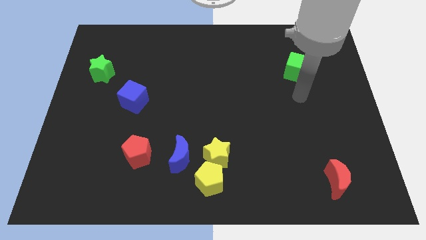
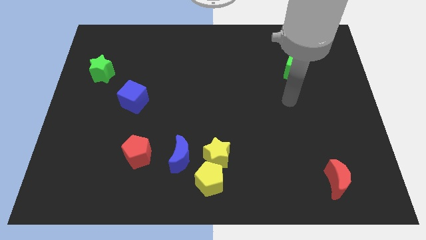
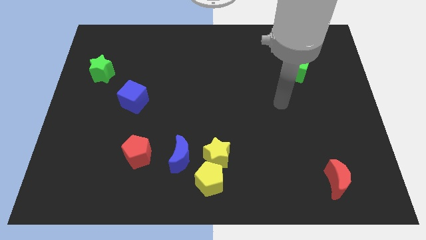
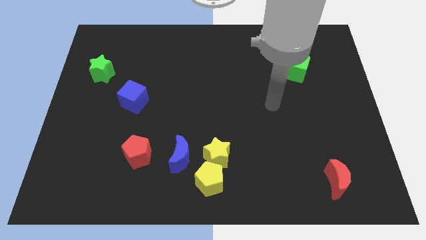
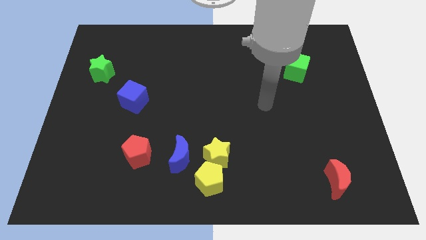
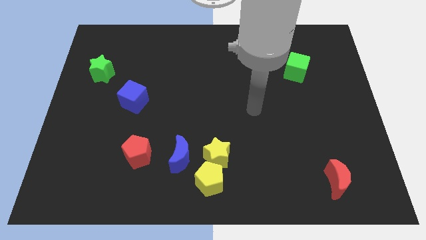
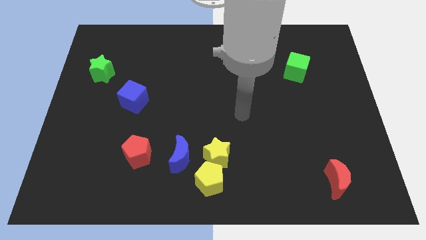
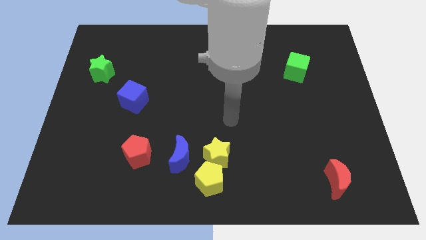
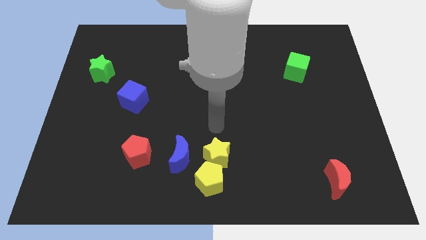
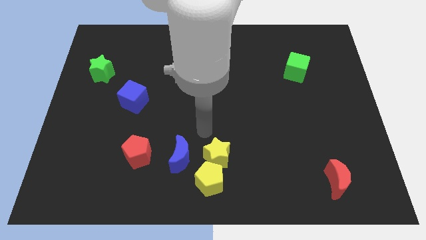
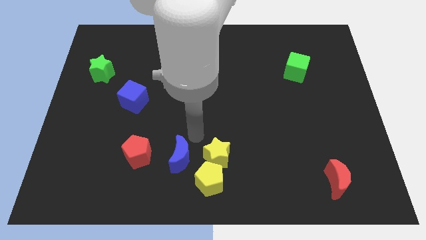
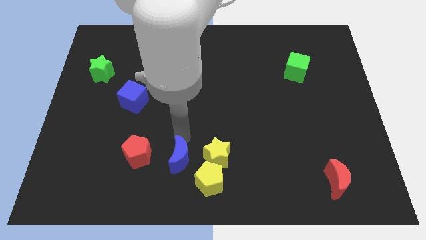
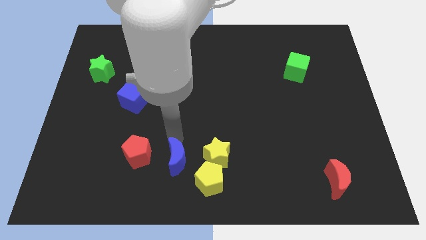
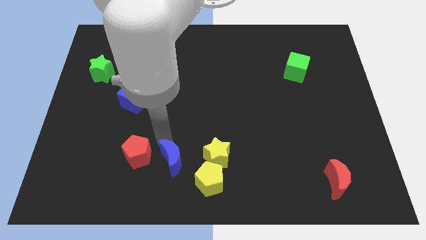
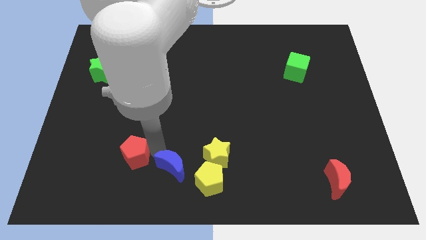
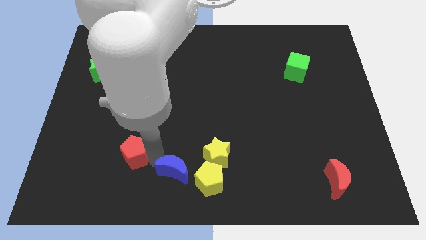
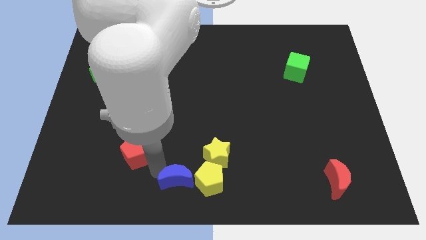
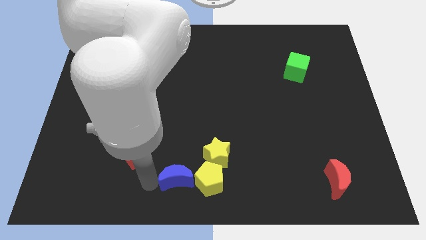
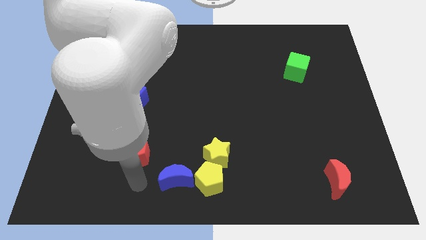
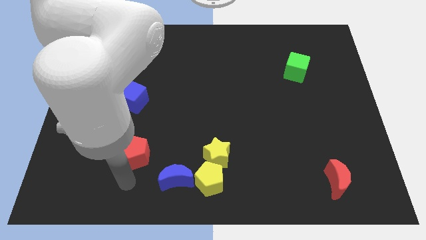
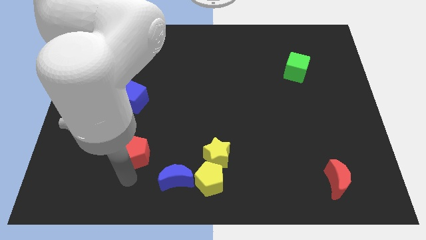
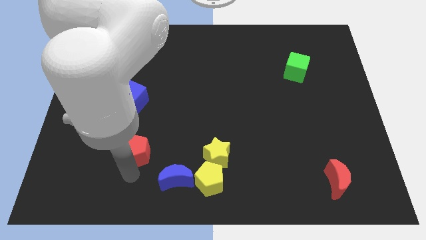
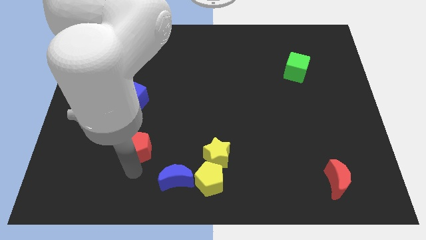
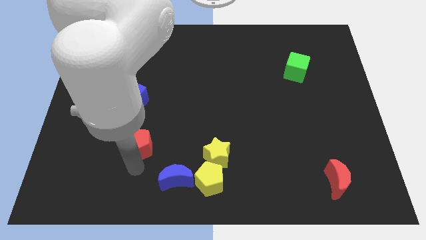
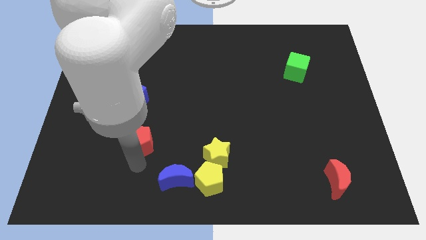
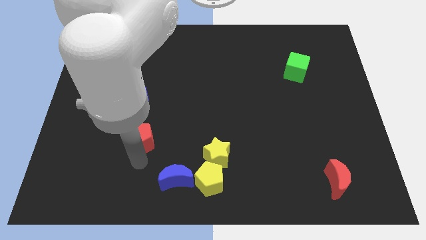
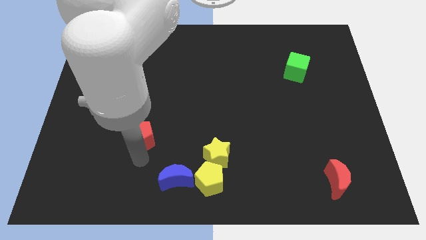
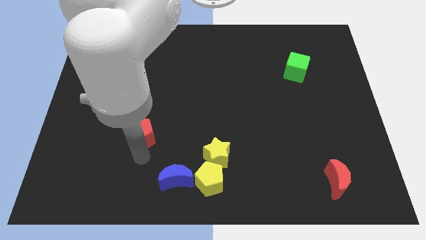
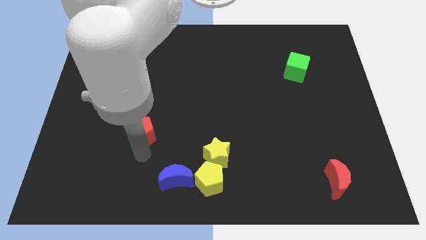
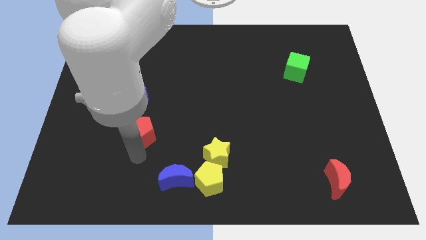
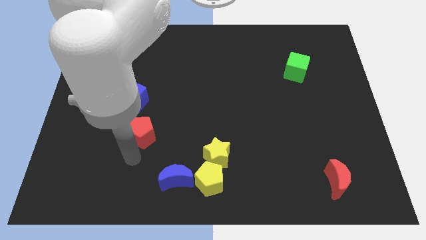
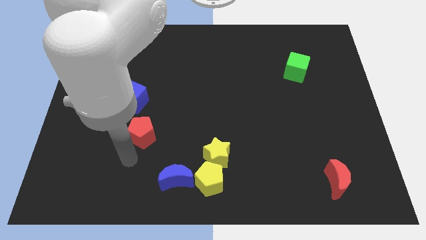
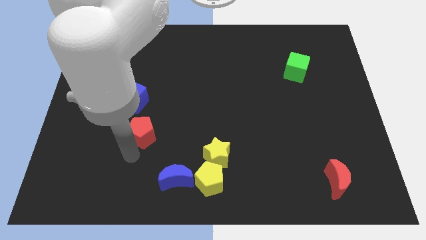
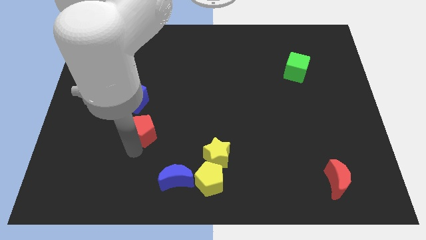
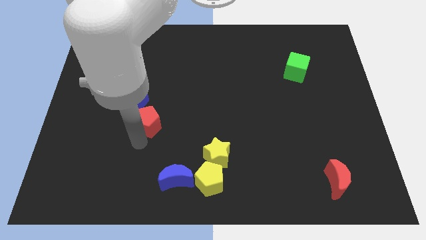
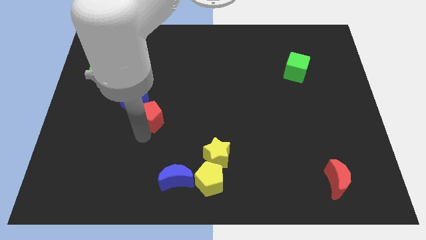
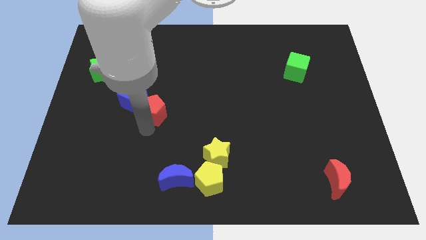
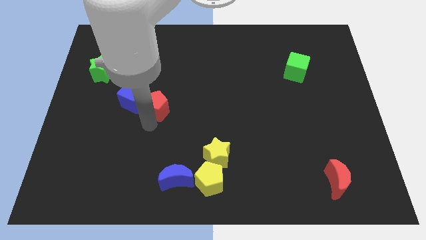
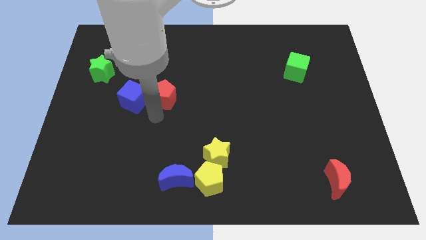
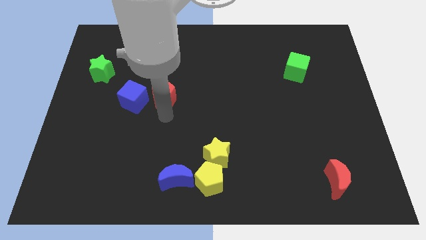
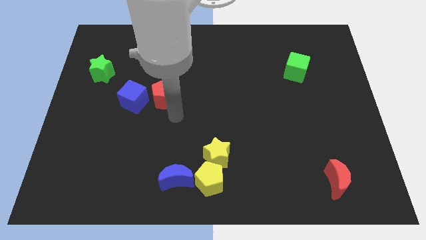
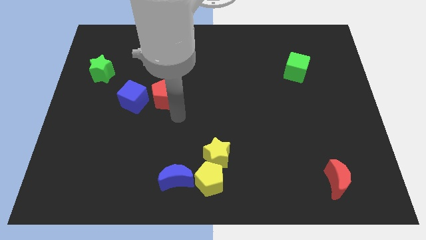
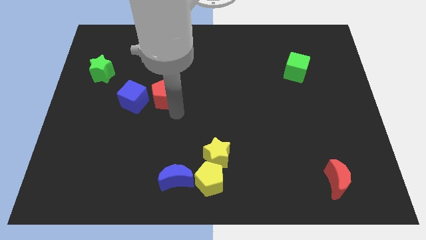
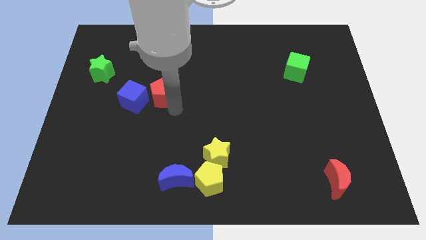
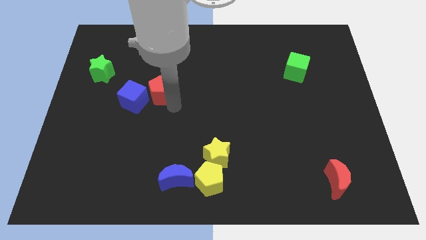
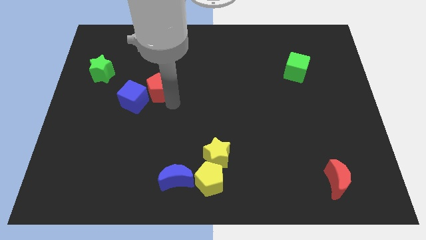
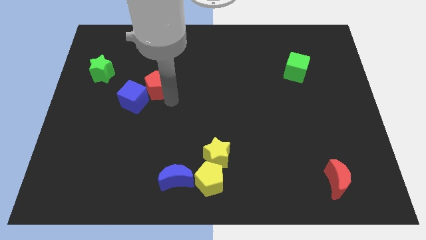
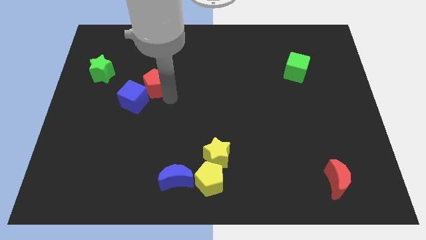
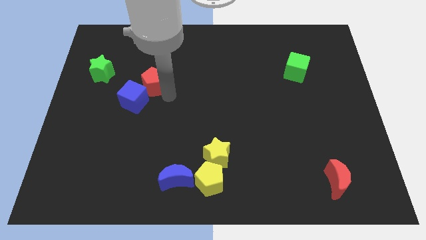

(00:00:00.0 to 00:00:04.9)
put the red pentagon just right of the green star

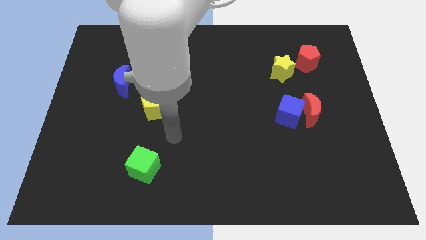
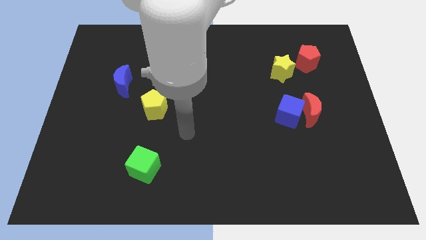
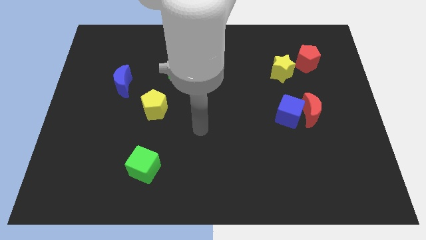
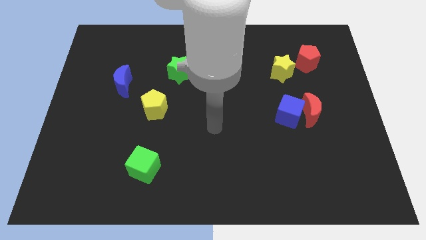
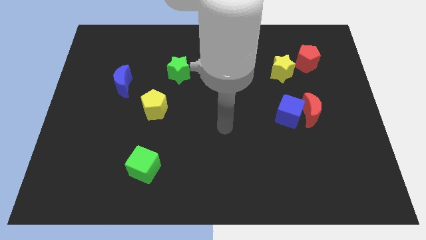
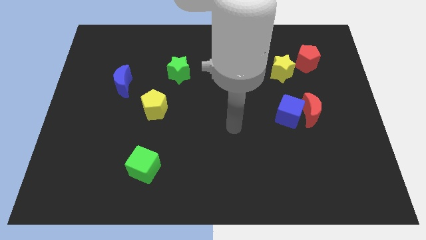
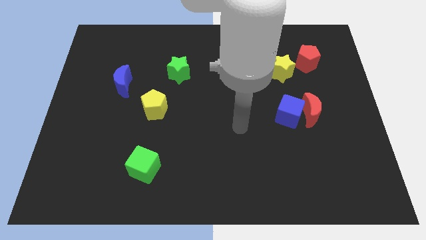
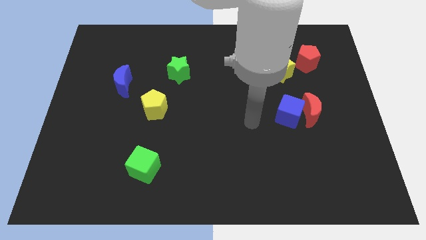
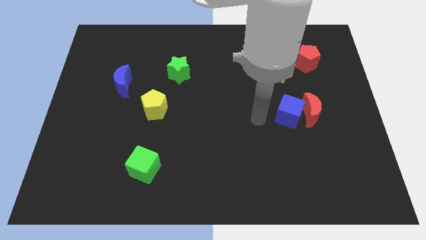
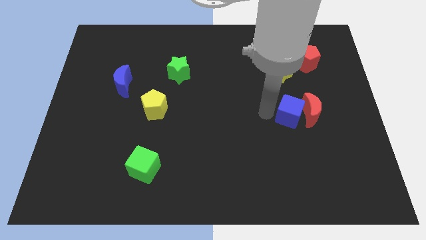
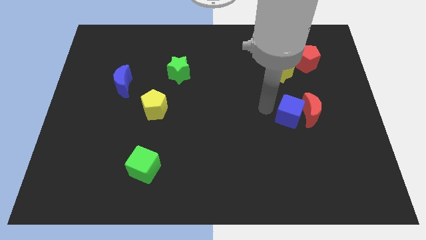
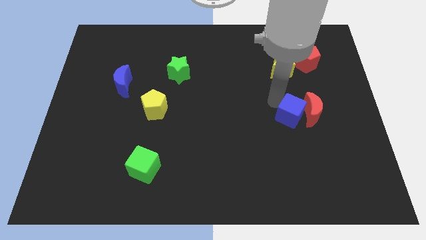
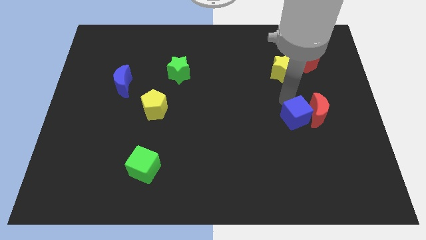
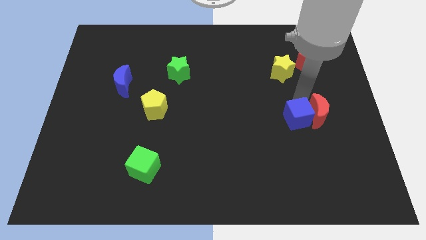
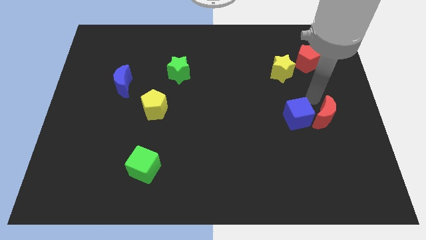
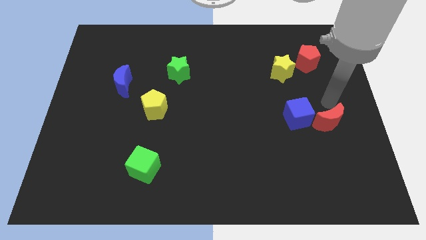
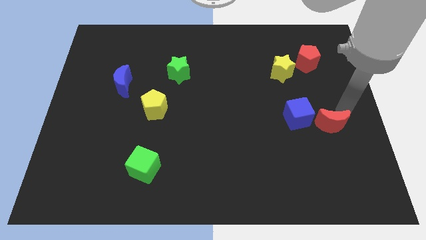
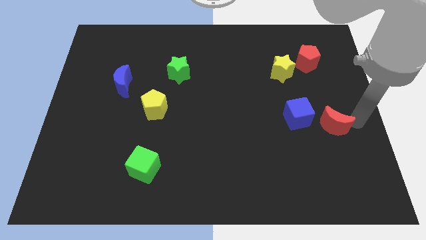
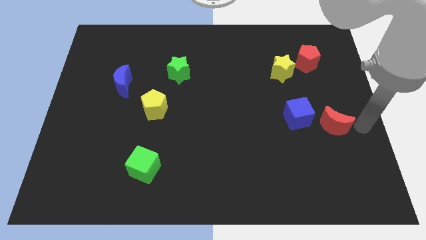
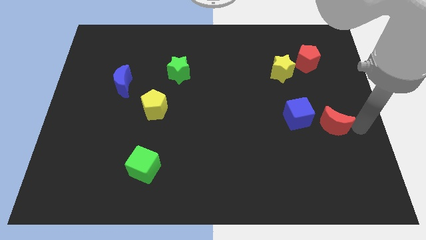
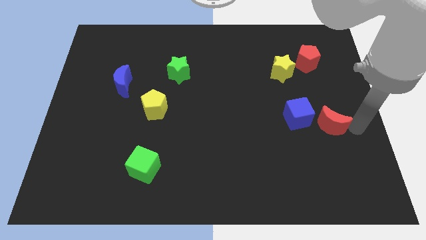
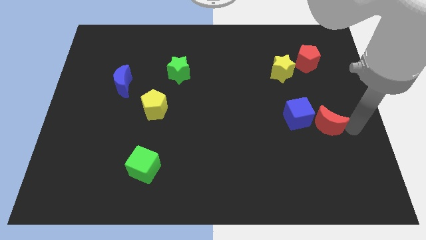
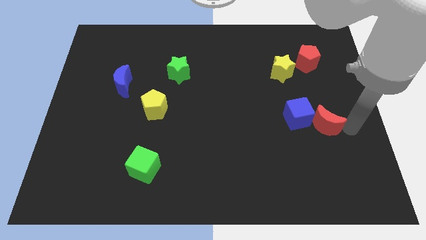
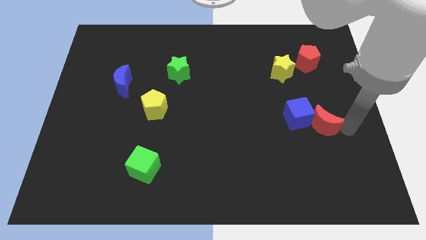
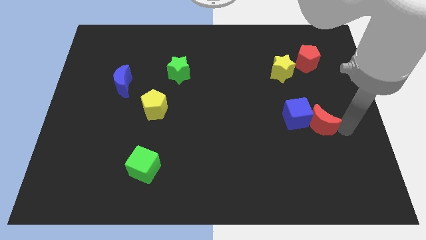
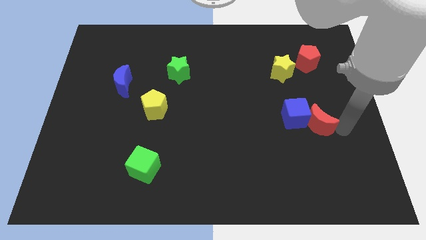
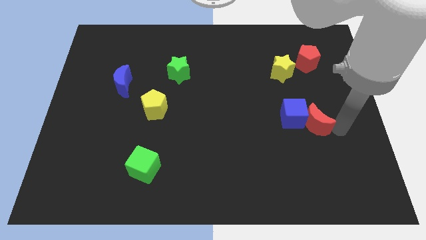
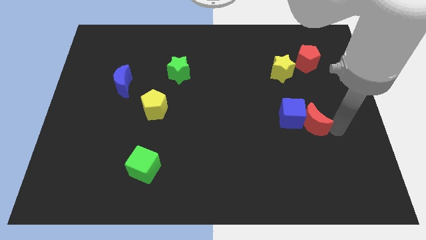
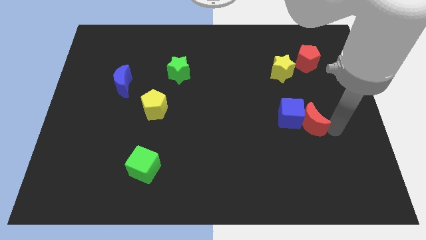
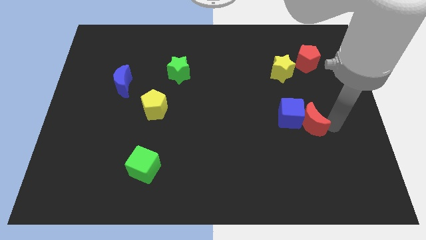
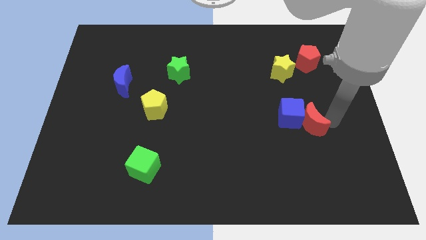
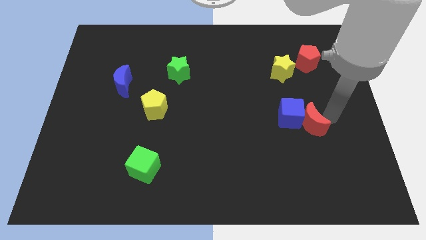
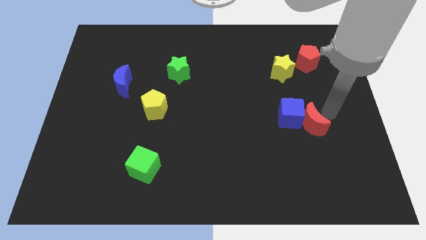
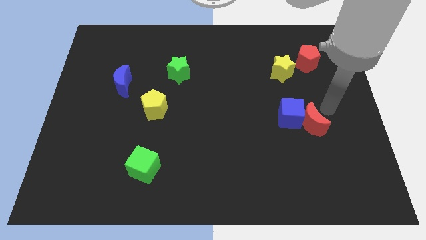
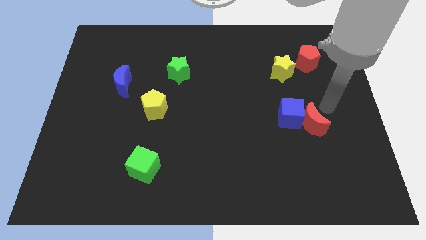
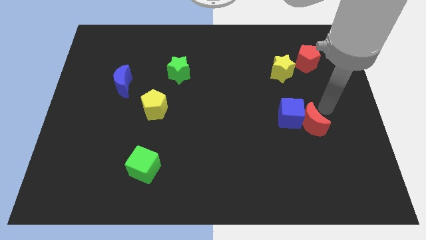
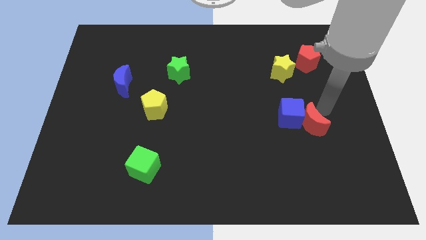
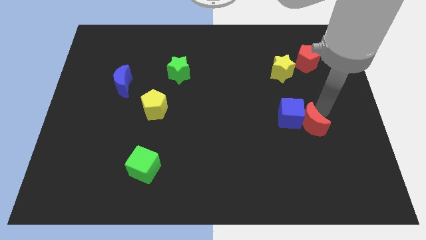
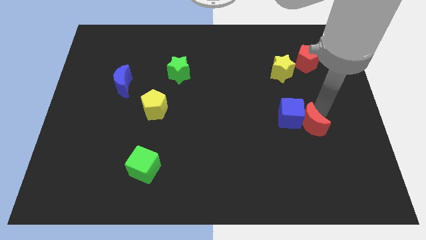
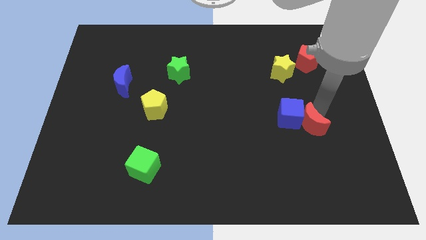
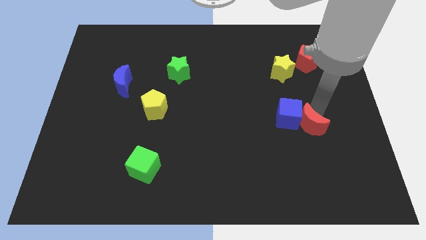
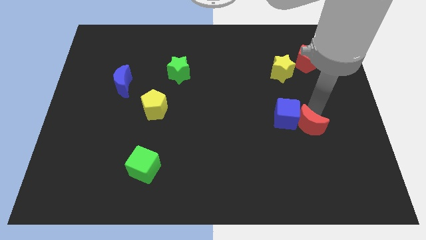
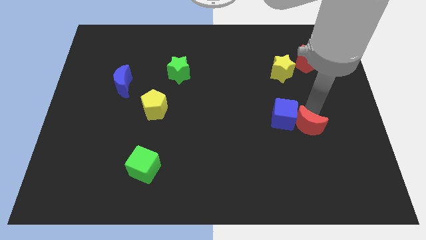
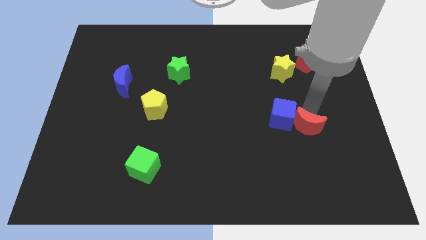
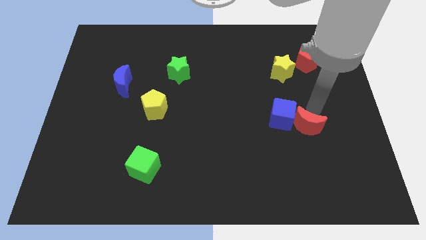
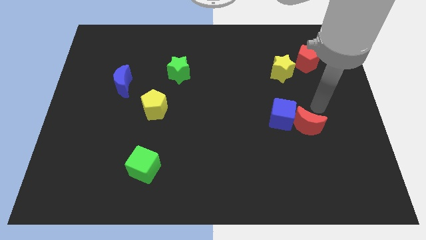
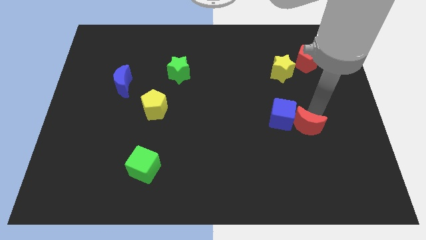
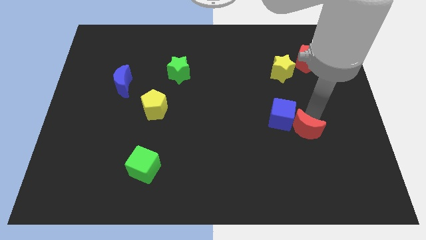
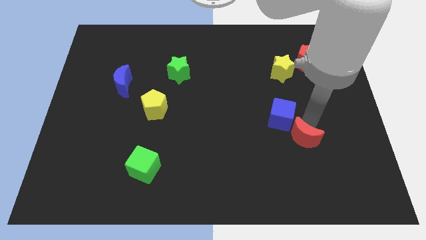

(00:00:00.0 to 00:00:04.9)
push the red moon below the blue cube
